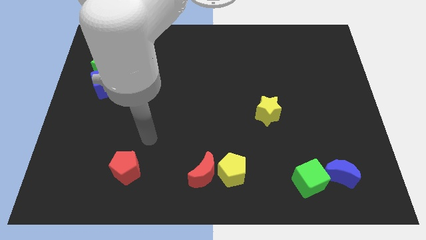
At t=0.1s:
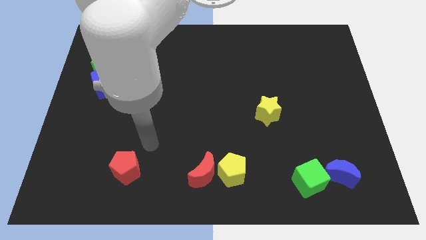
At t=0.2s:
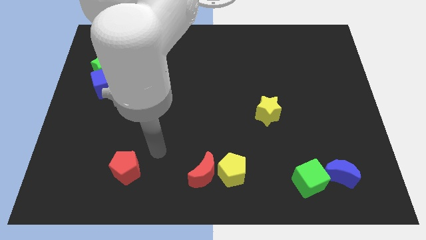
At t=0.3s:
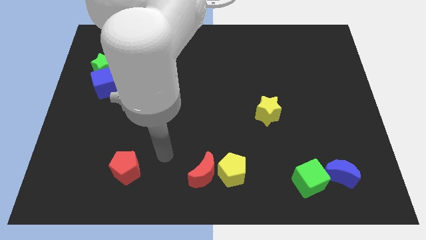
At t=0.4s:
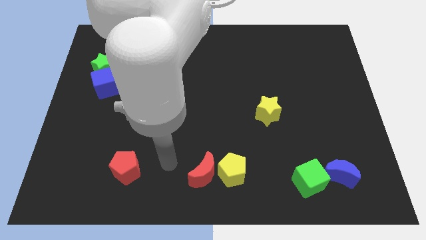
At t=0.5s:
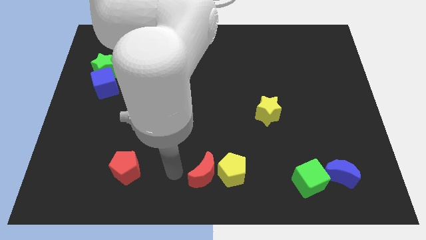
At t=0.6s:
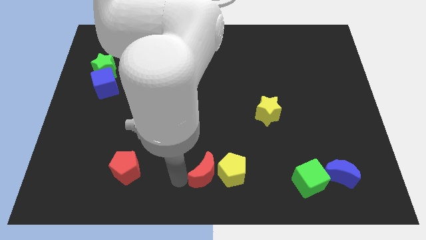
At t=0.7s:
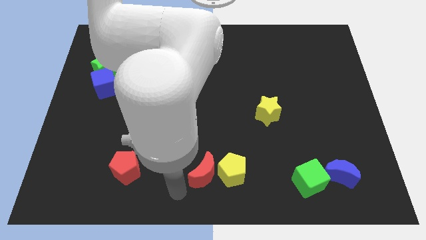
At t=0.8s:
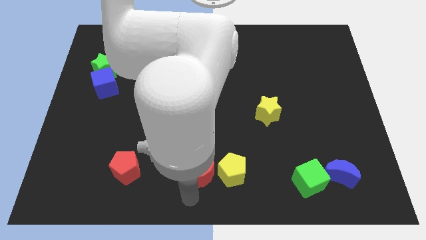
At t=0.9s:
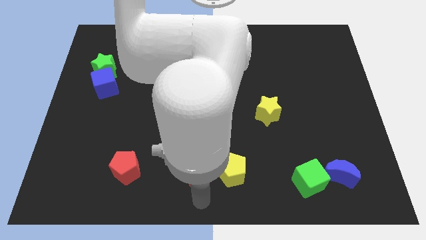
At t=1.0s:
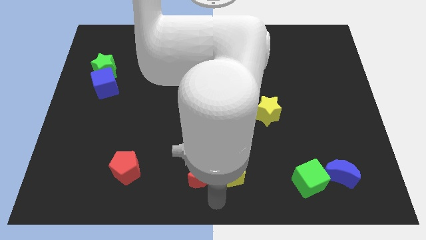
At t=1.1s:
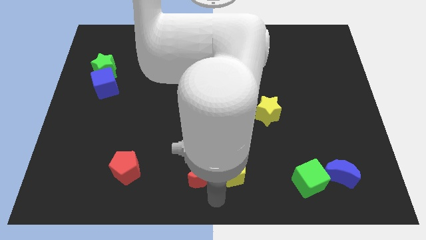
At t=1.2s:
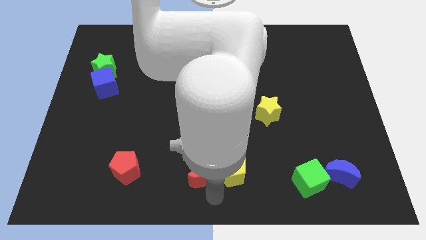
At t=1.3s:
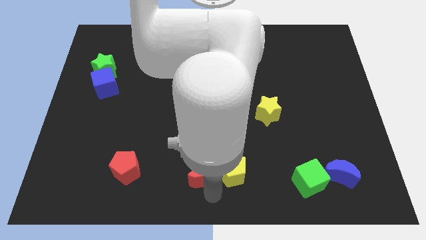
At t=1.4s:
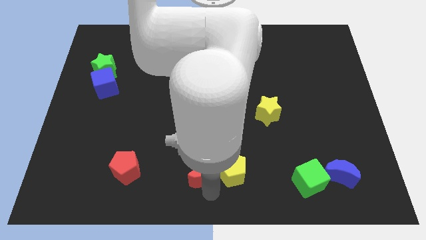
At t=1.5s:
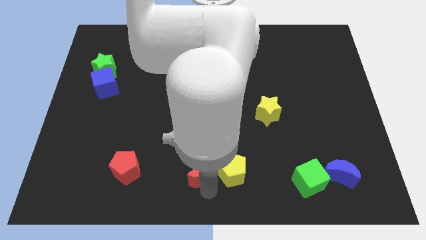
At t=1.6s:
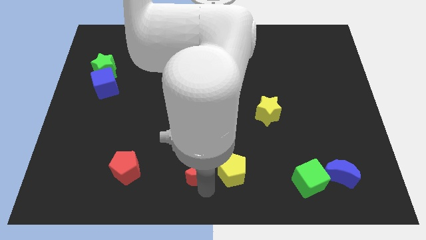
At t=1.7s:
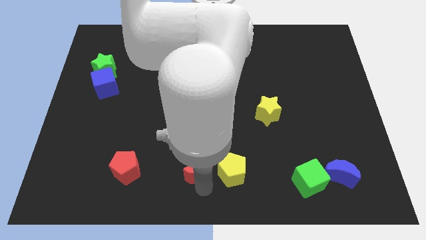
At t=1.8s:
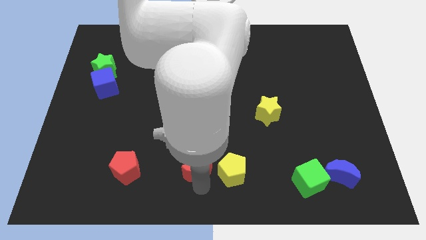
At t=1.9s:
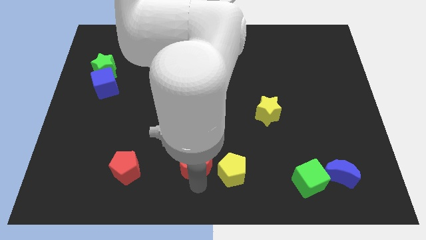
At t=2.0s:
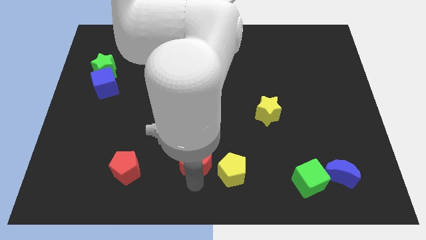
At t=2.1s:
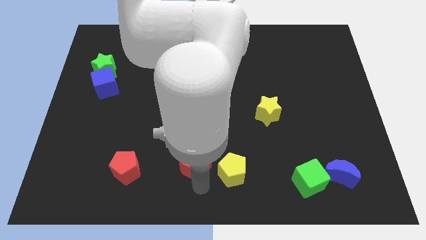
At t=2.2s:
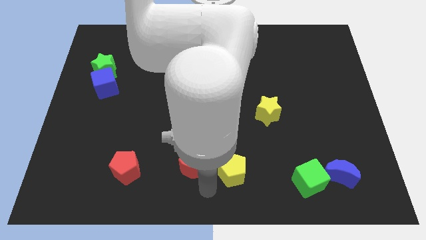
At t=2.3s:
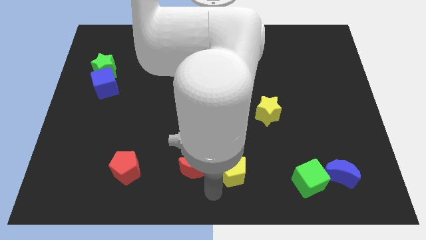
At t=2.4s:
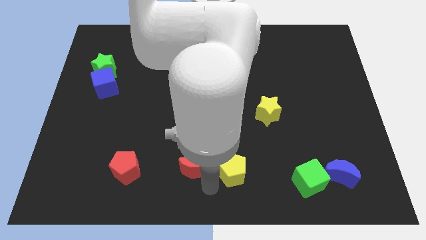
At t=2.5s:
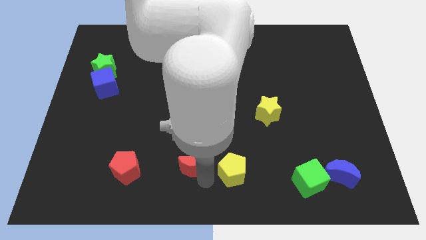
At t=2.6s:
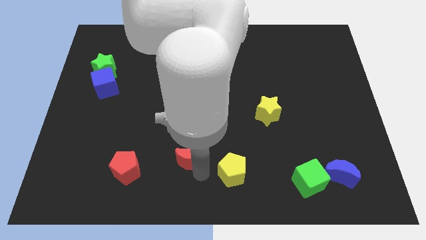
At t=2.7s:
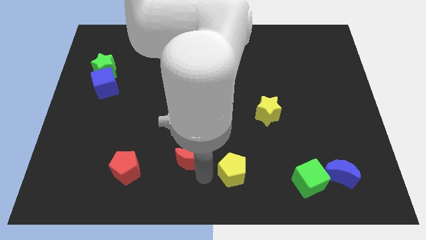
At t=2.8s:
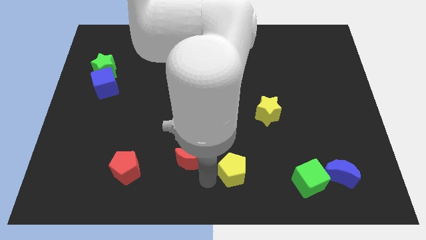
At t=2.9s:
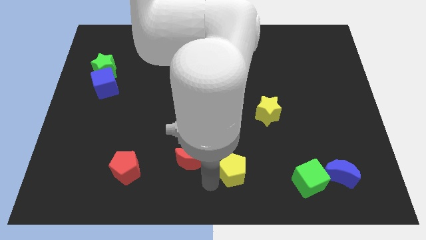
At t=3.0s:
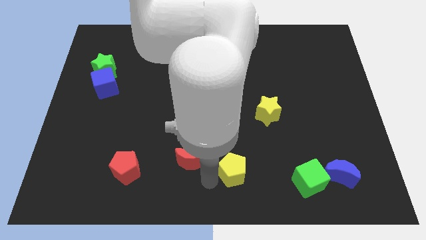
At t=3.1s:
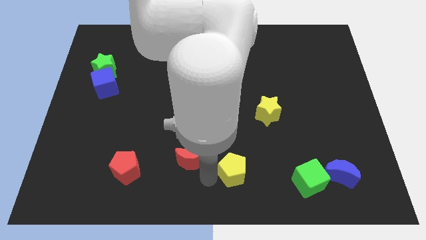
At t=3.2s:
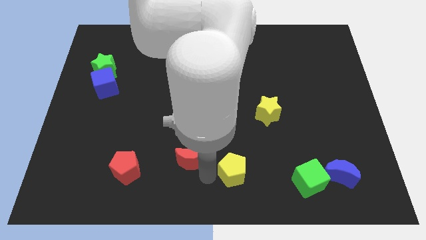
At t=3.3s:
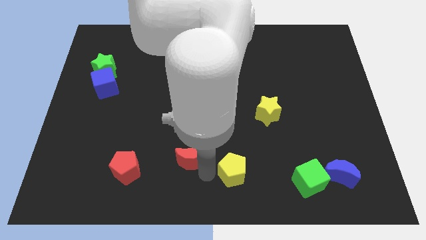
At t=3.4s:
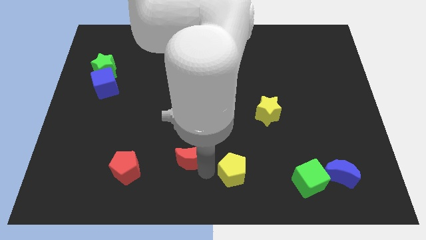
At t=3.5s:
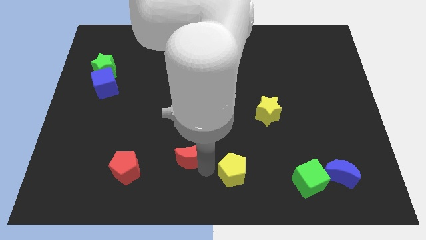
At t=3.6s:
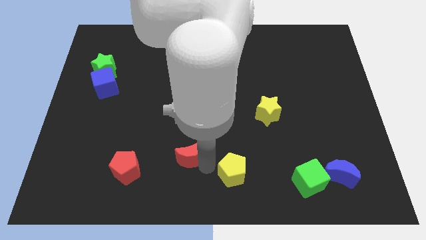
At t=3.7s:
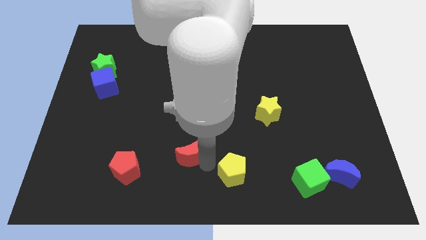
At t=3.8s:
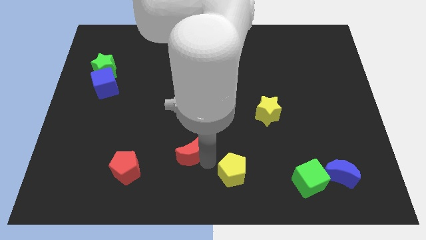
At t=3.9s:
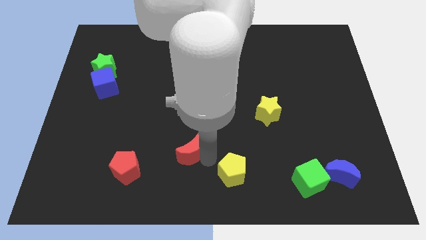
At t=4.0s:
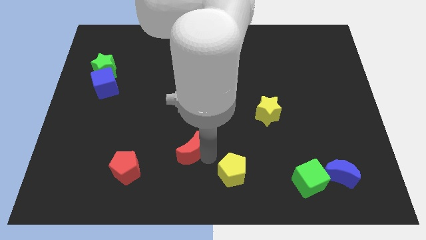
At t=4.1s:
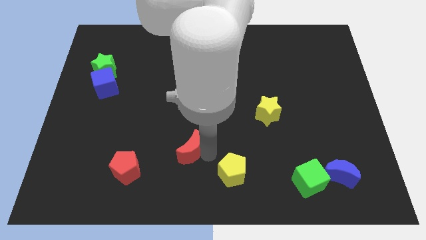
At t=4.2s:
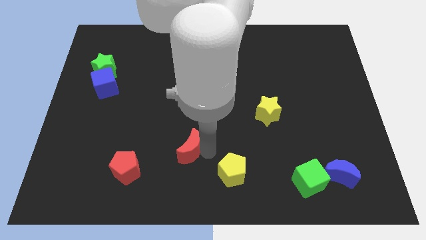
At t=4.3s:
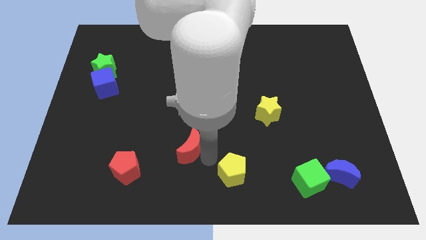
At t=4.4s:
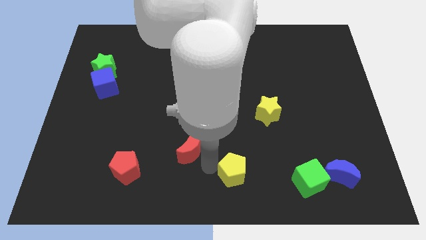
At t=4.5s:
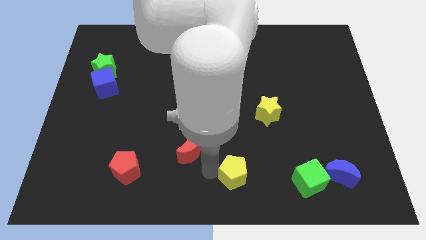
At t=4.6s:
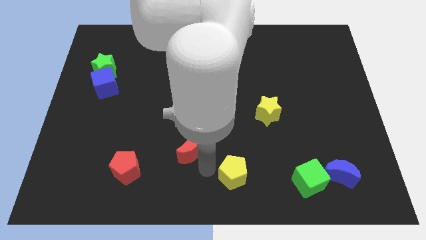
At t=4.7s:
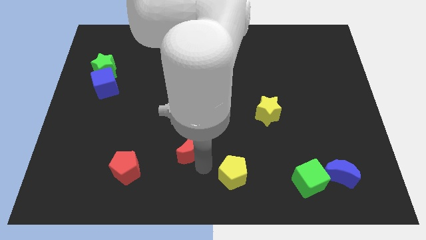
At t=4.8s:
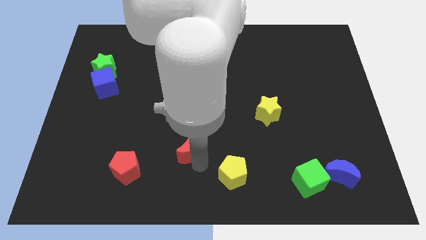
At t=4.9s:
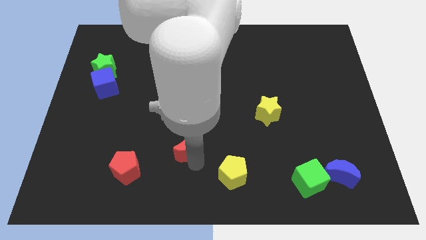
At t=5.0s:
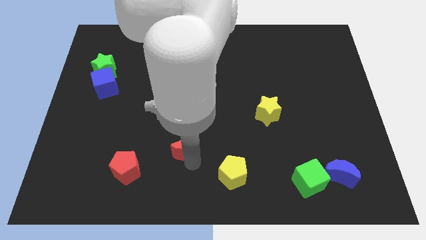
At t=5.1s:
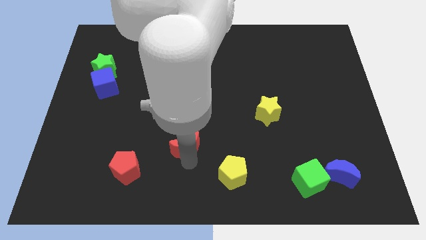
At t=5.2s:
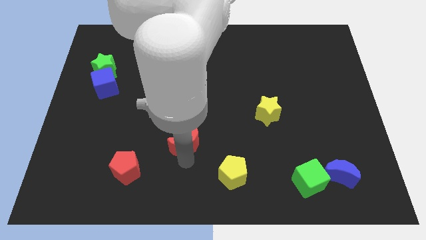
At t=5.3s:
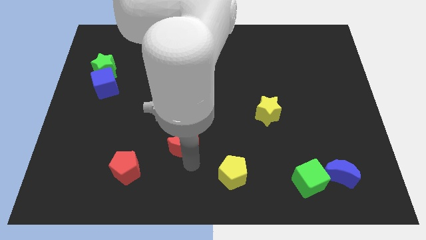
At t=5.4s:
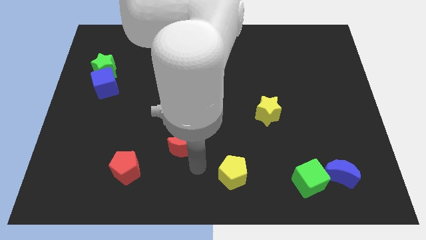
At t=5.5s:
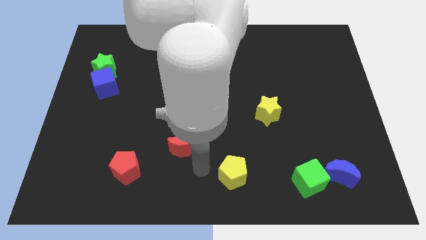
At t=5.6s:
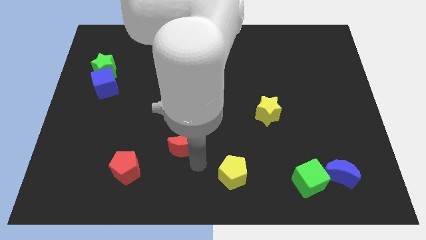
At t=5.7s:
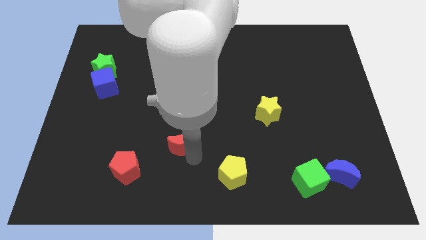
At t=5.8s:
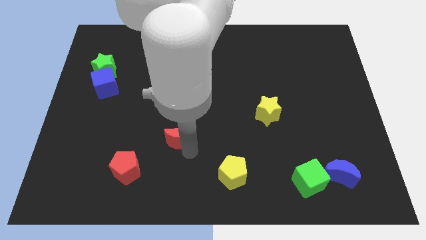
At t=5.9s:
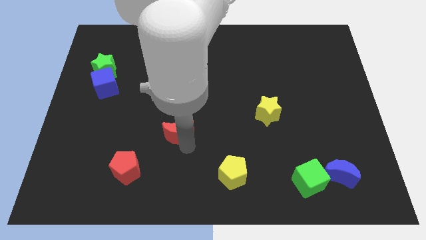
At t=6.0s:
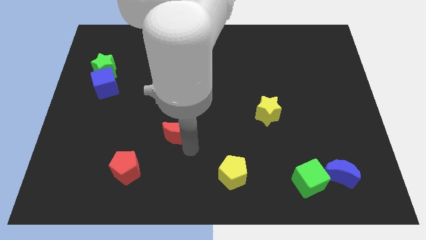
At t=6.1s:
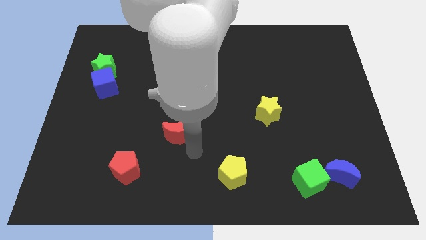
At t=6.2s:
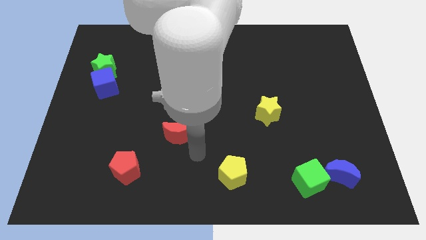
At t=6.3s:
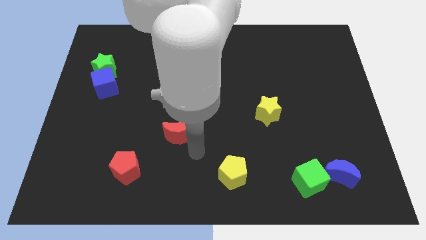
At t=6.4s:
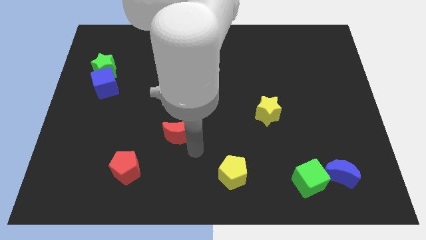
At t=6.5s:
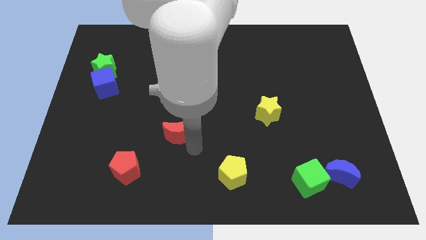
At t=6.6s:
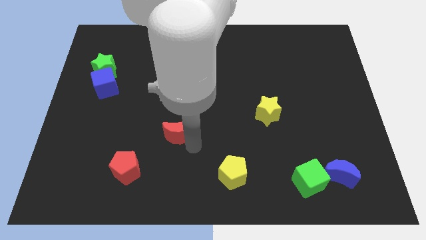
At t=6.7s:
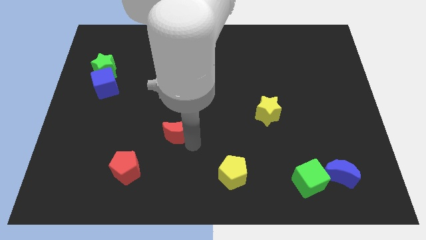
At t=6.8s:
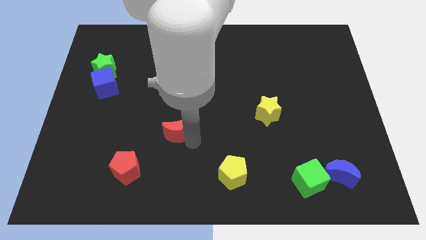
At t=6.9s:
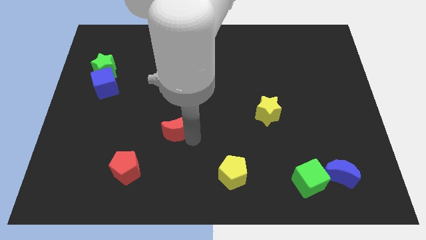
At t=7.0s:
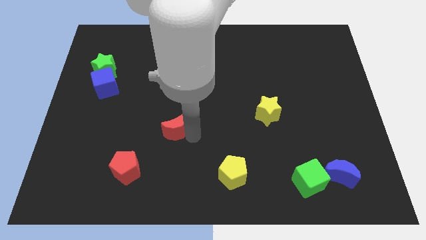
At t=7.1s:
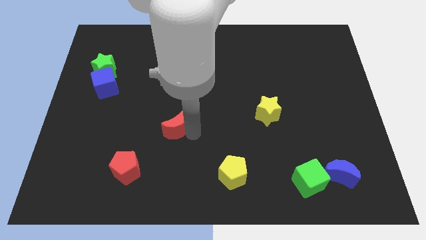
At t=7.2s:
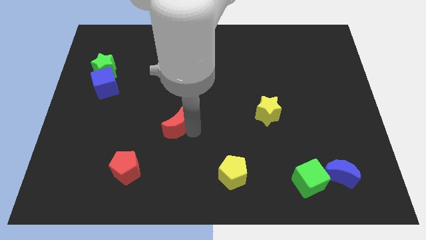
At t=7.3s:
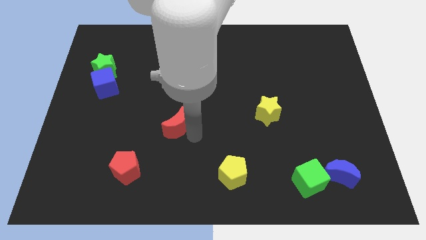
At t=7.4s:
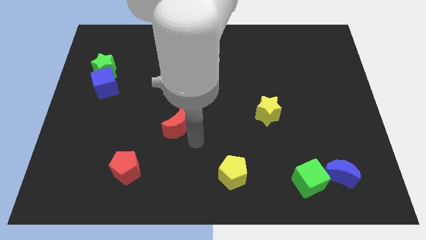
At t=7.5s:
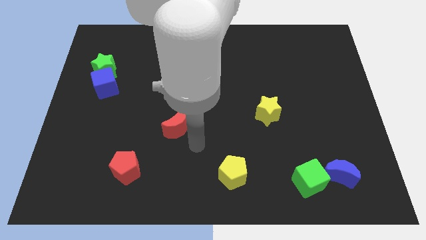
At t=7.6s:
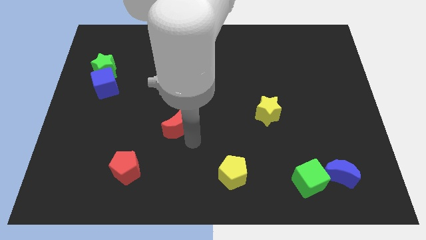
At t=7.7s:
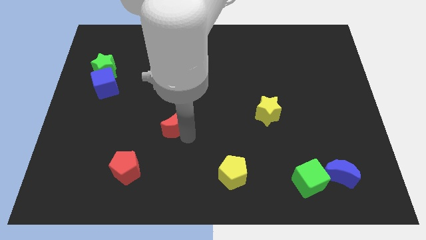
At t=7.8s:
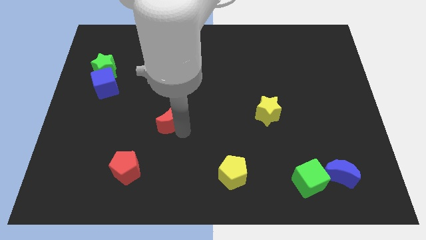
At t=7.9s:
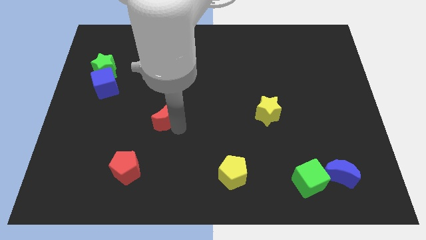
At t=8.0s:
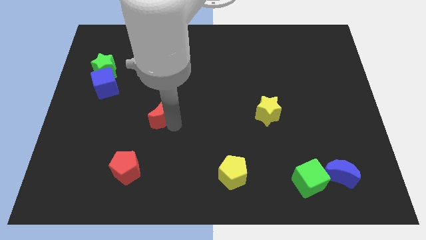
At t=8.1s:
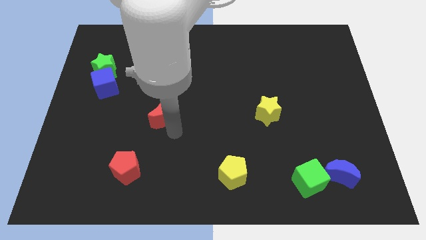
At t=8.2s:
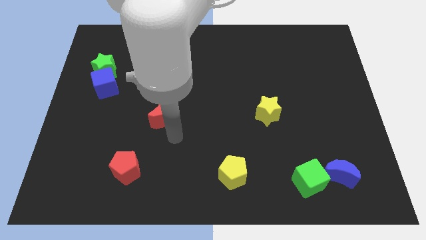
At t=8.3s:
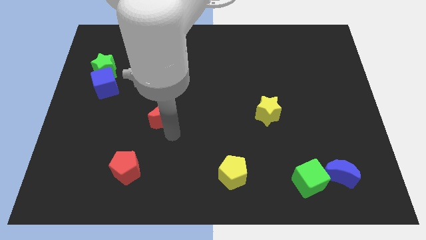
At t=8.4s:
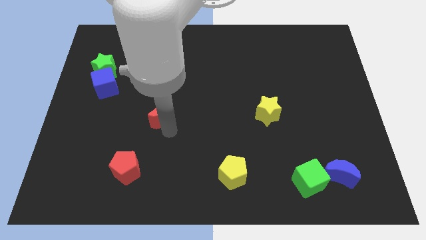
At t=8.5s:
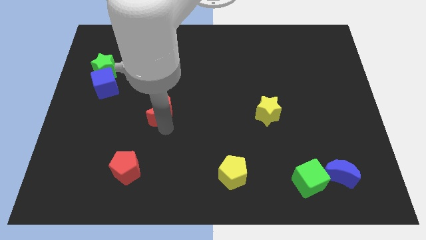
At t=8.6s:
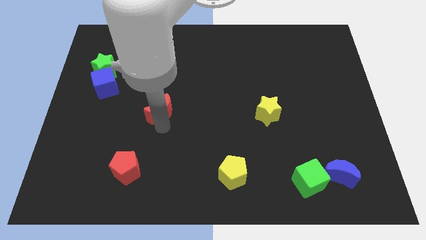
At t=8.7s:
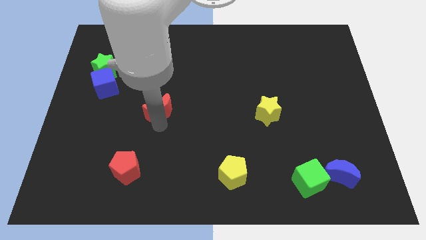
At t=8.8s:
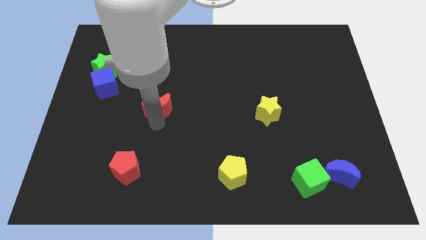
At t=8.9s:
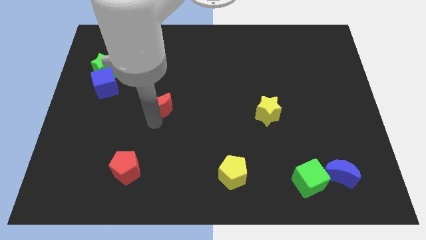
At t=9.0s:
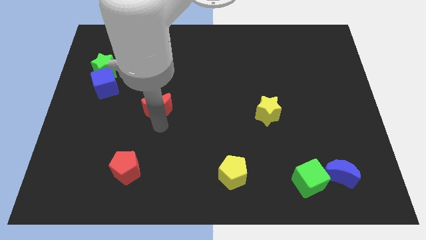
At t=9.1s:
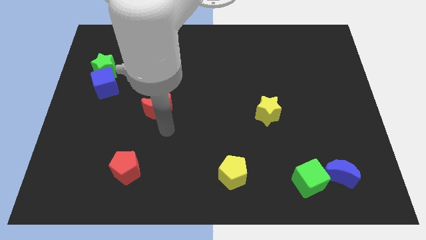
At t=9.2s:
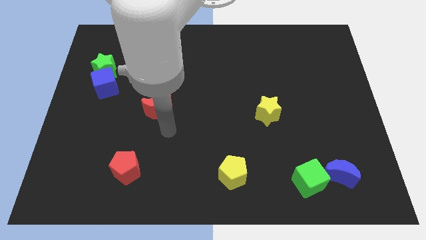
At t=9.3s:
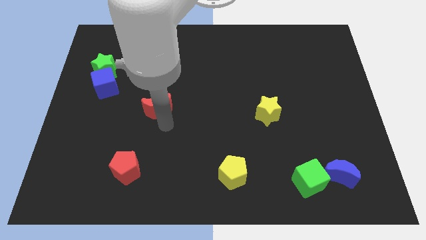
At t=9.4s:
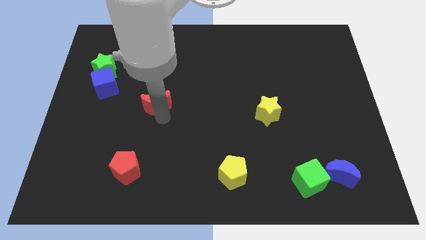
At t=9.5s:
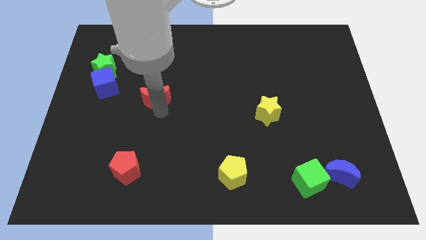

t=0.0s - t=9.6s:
move the red moon just right of the blue cube
